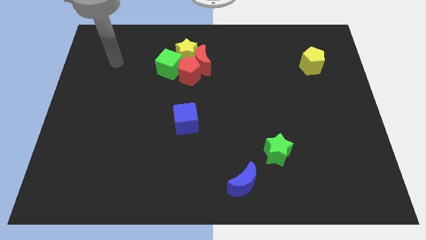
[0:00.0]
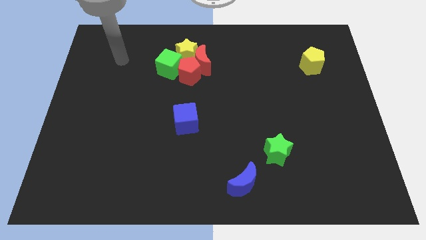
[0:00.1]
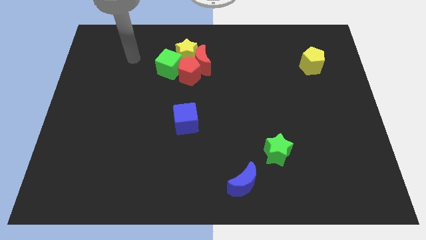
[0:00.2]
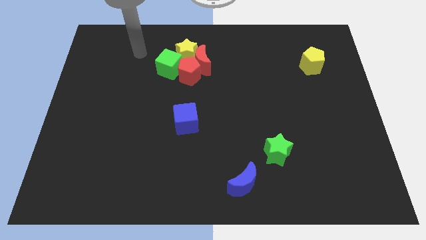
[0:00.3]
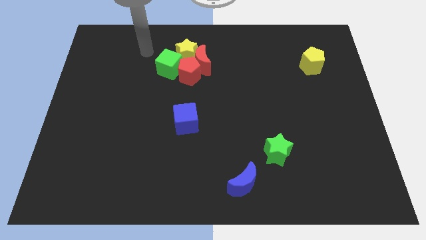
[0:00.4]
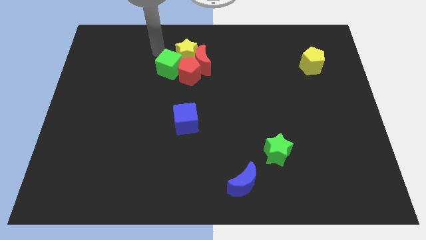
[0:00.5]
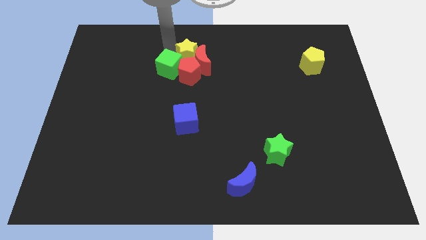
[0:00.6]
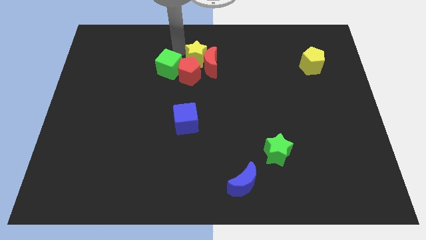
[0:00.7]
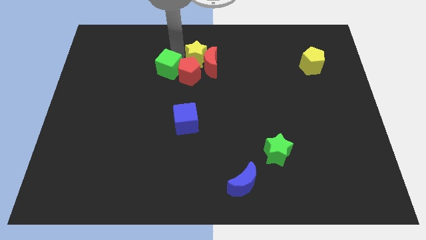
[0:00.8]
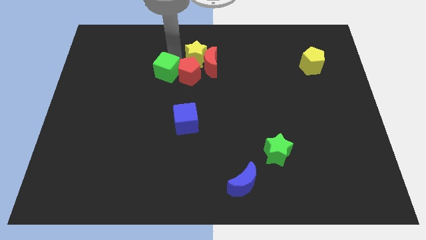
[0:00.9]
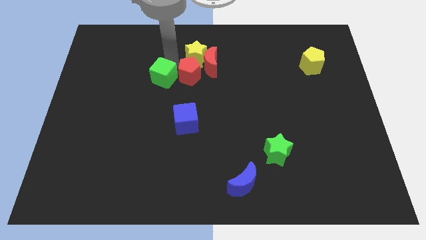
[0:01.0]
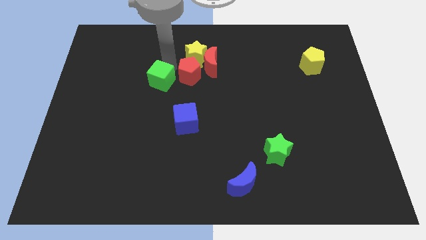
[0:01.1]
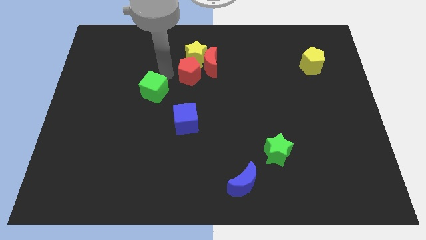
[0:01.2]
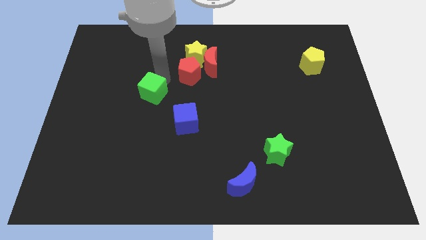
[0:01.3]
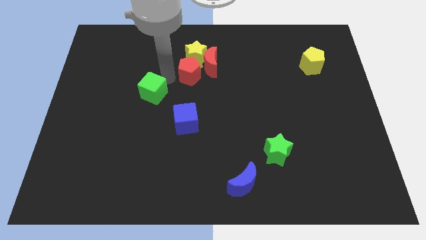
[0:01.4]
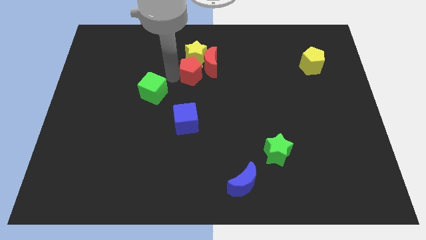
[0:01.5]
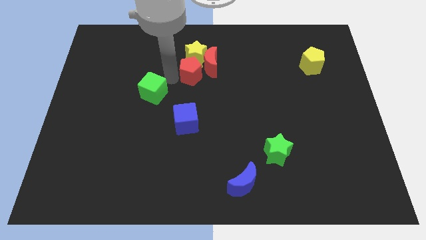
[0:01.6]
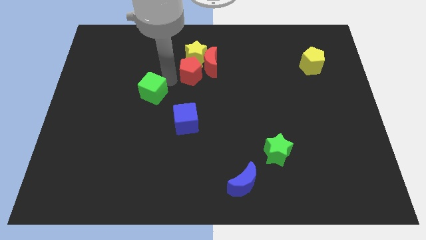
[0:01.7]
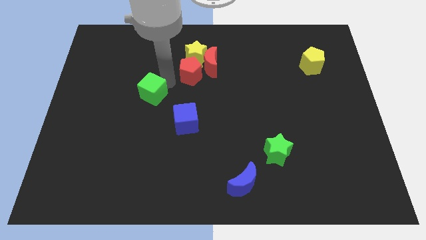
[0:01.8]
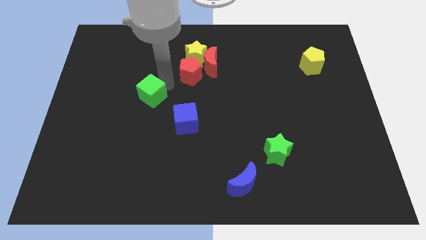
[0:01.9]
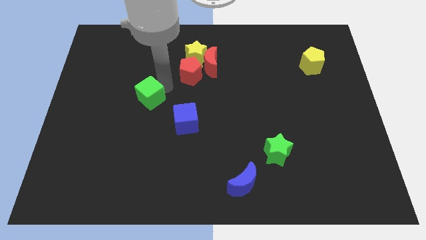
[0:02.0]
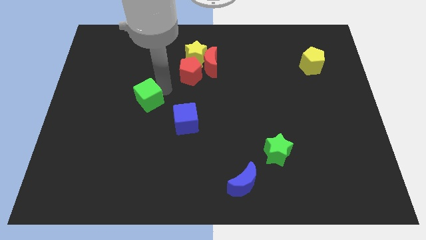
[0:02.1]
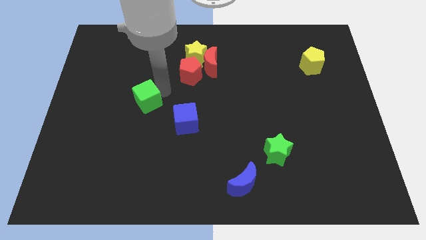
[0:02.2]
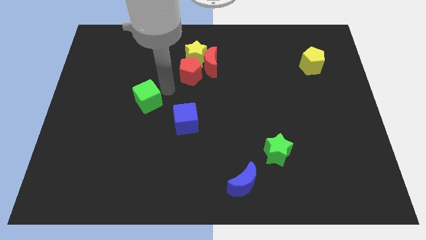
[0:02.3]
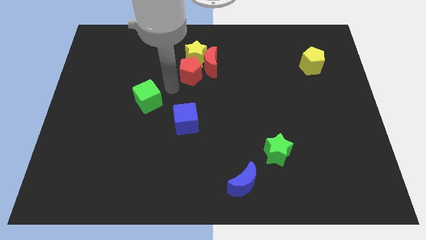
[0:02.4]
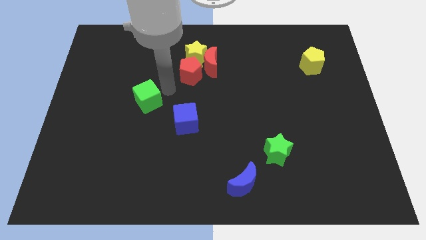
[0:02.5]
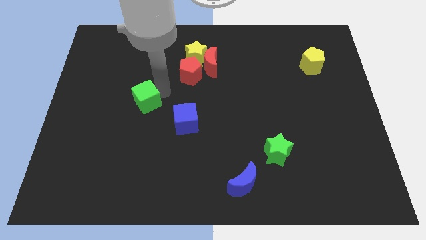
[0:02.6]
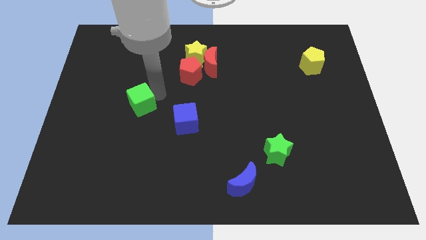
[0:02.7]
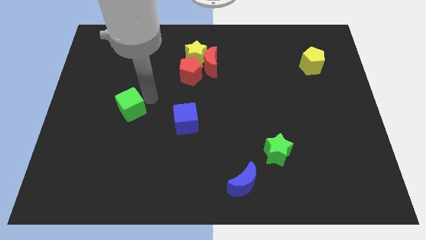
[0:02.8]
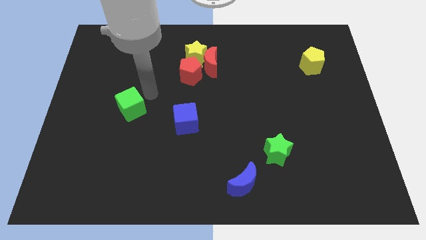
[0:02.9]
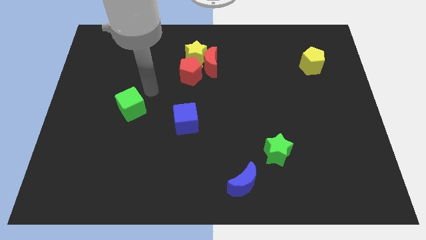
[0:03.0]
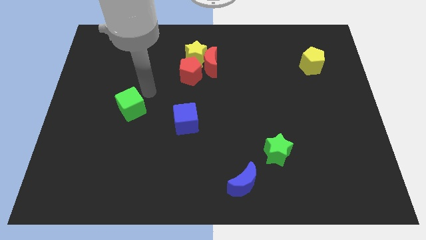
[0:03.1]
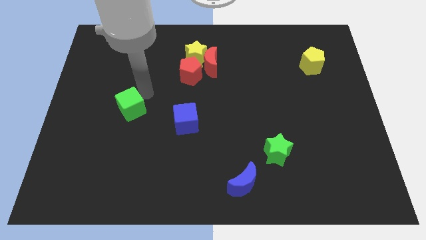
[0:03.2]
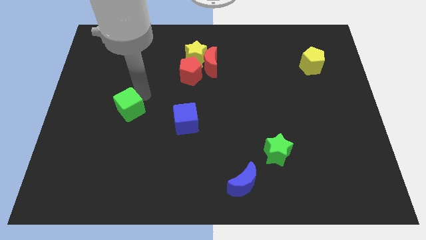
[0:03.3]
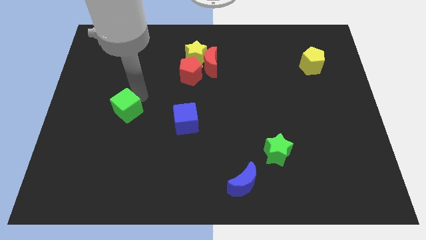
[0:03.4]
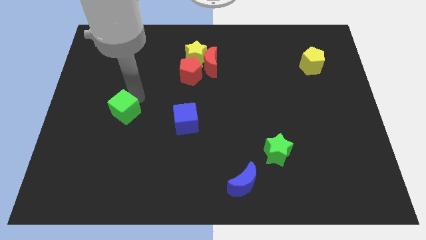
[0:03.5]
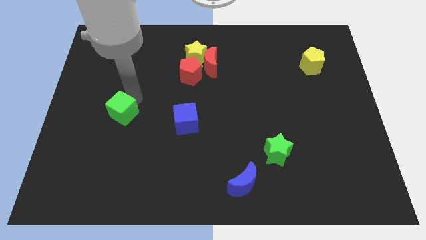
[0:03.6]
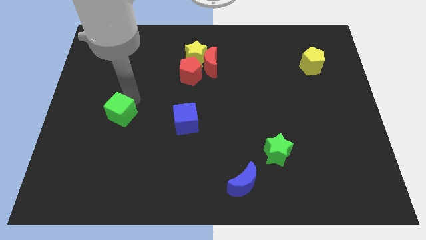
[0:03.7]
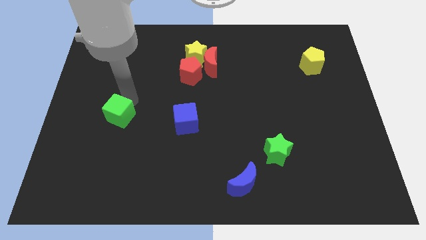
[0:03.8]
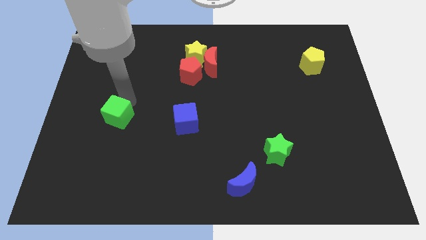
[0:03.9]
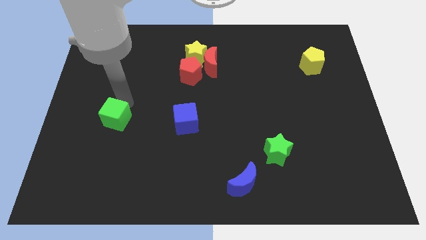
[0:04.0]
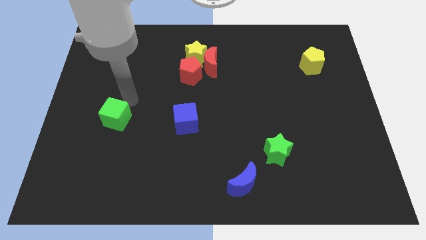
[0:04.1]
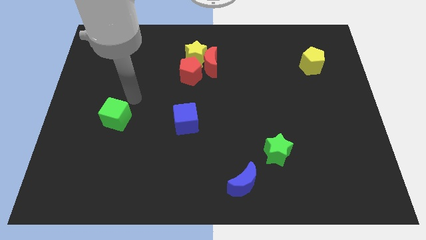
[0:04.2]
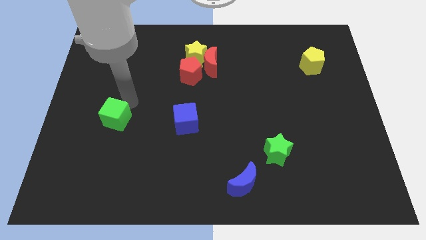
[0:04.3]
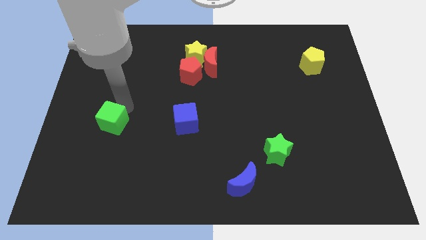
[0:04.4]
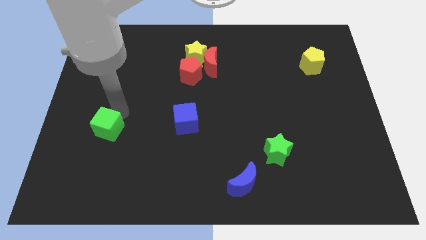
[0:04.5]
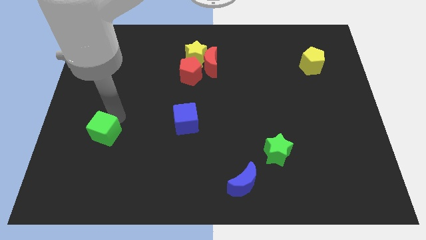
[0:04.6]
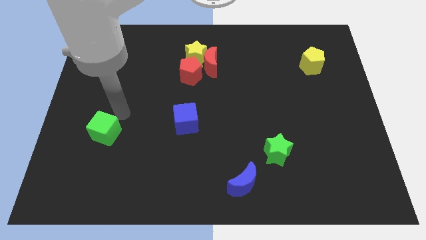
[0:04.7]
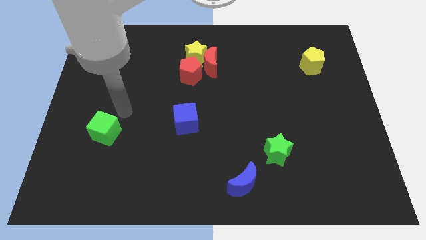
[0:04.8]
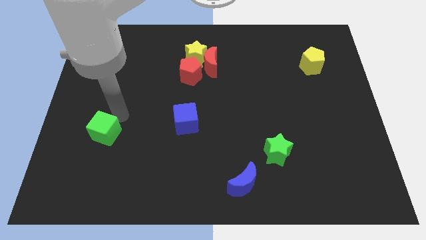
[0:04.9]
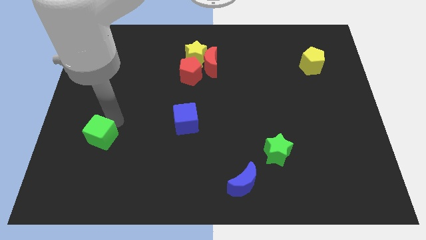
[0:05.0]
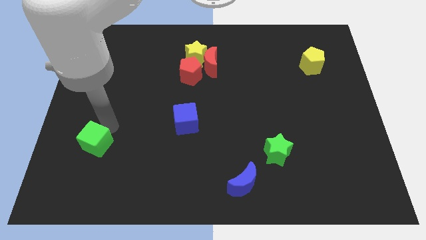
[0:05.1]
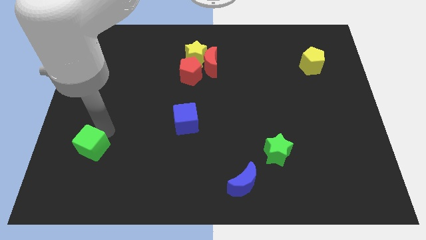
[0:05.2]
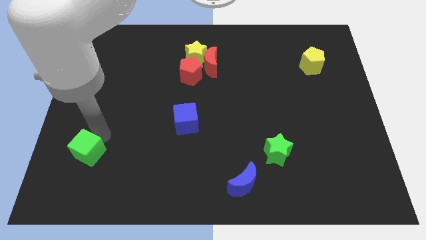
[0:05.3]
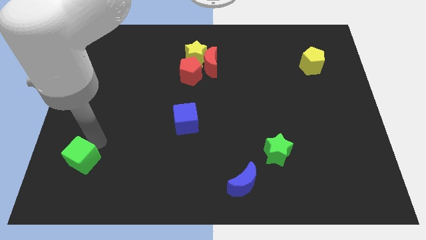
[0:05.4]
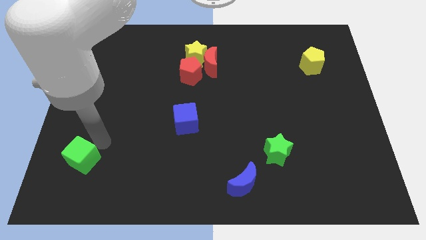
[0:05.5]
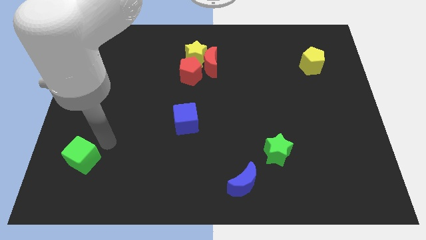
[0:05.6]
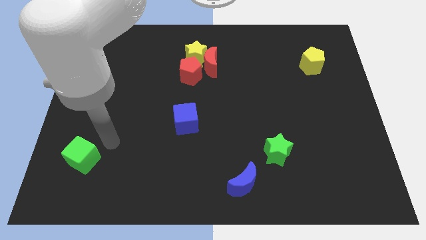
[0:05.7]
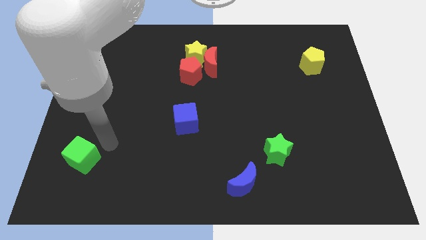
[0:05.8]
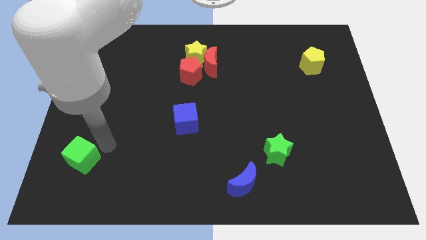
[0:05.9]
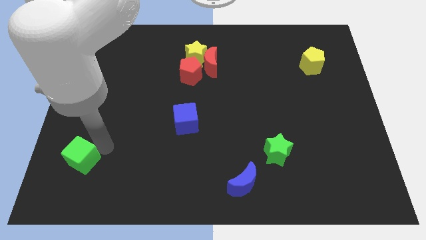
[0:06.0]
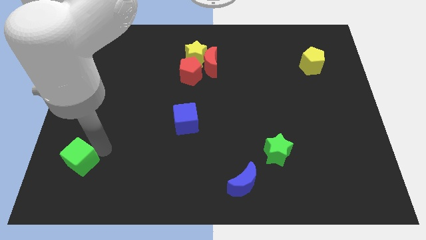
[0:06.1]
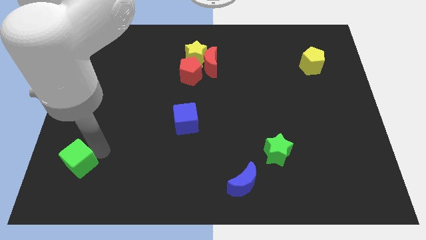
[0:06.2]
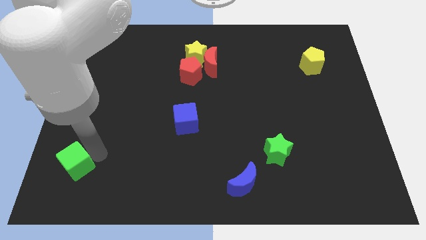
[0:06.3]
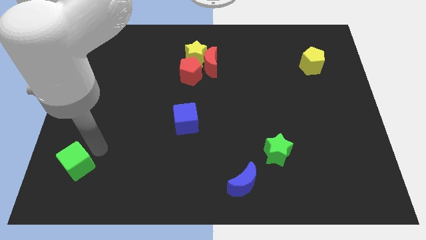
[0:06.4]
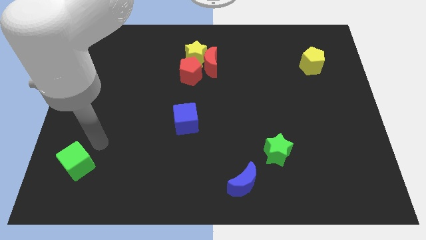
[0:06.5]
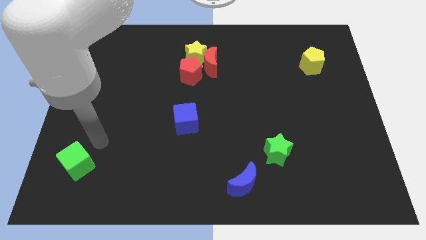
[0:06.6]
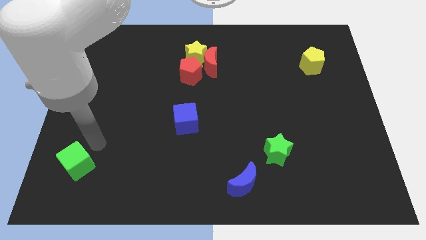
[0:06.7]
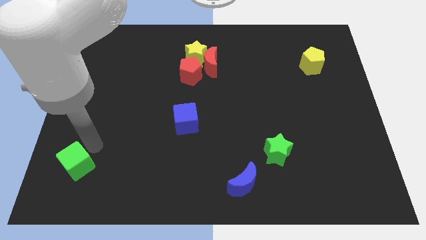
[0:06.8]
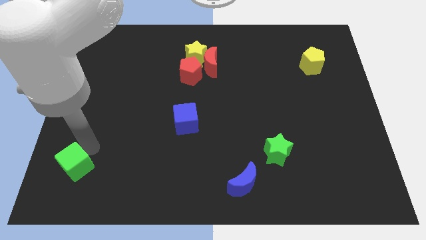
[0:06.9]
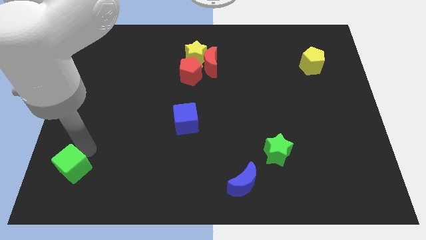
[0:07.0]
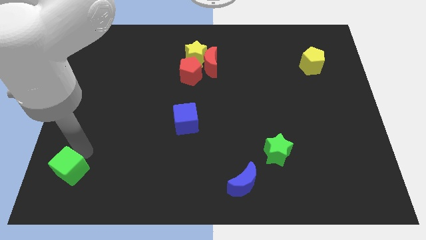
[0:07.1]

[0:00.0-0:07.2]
slide the green cube to the bottom left corner
